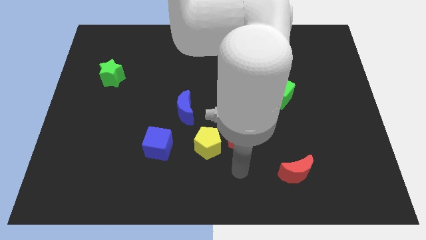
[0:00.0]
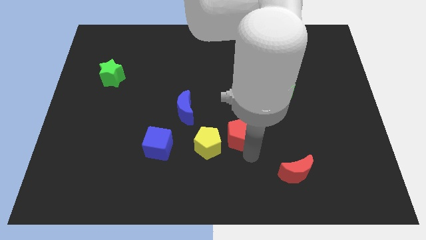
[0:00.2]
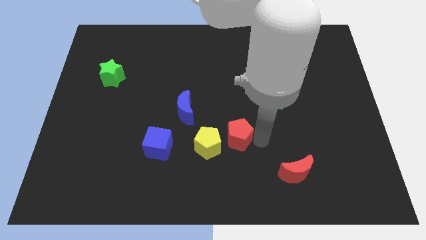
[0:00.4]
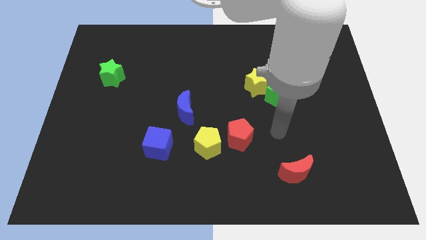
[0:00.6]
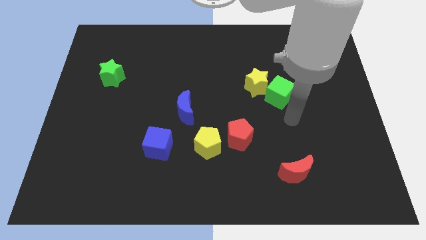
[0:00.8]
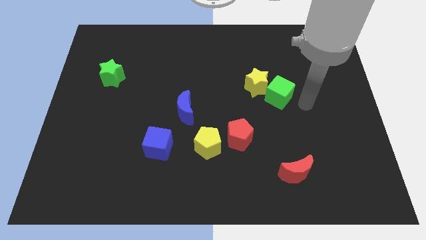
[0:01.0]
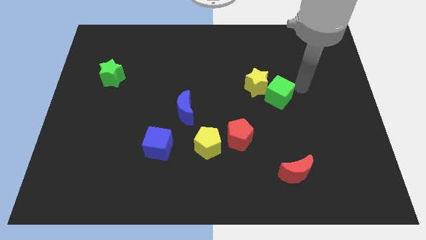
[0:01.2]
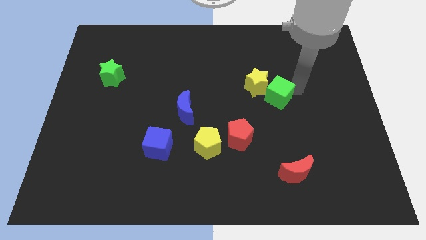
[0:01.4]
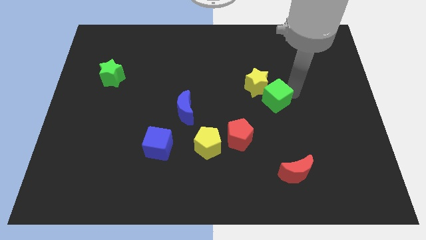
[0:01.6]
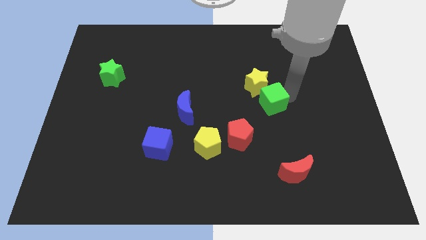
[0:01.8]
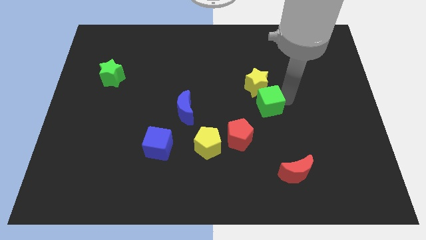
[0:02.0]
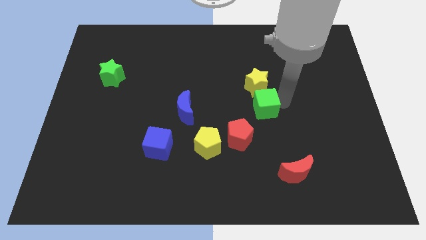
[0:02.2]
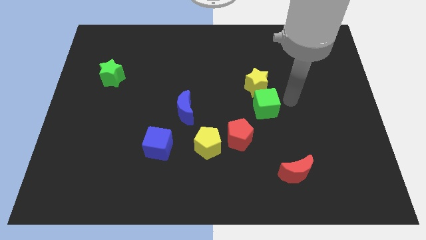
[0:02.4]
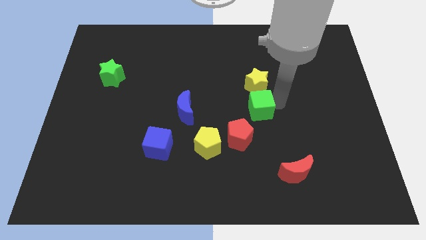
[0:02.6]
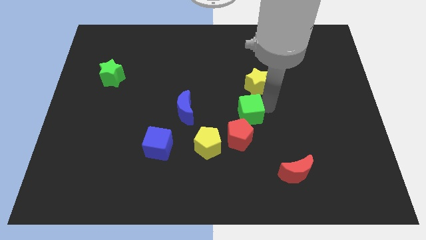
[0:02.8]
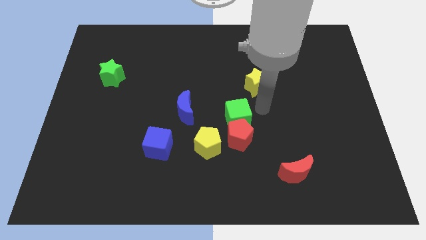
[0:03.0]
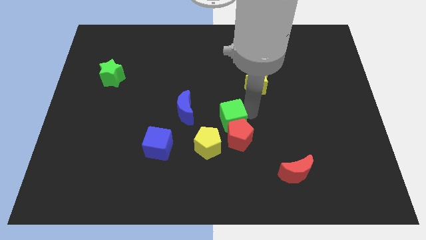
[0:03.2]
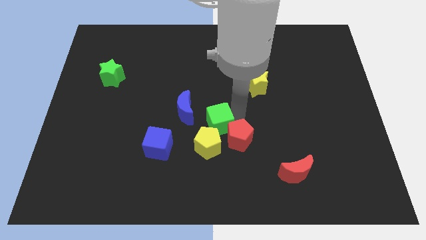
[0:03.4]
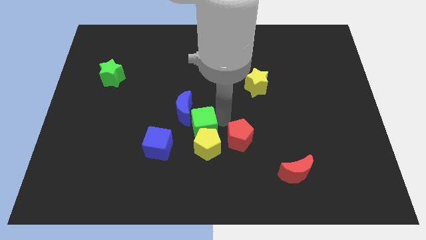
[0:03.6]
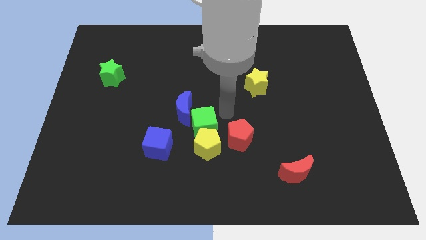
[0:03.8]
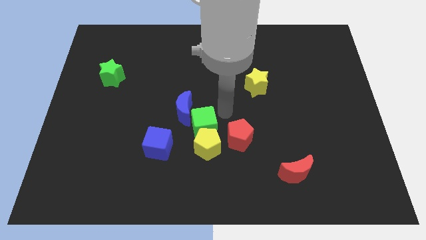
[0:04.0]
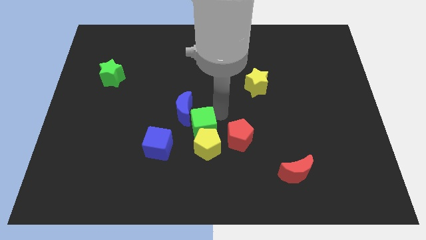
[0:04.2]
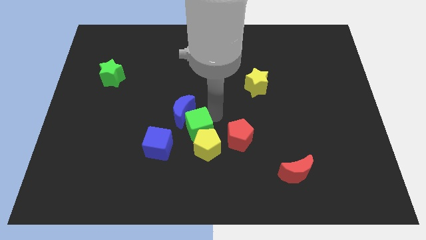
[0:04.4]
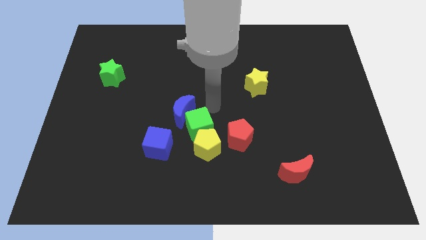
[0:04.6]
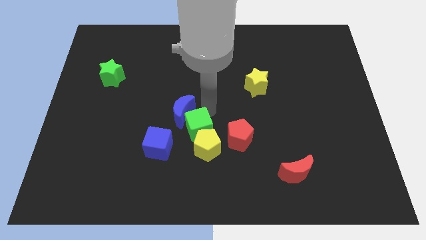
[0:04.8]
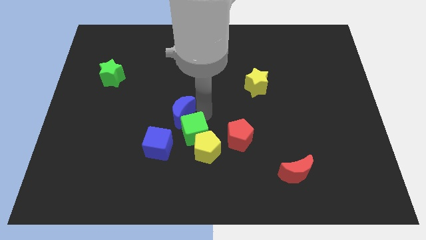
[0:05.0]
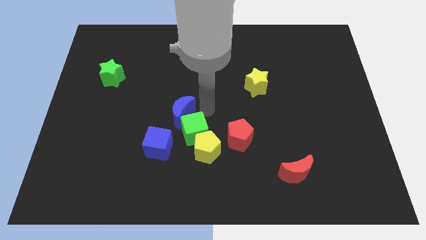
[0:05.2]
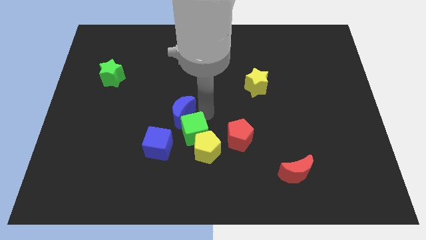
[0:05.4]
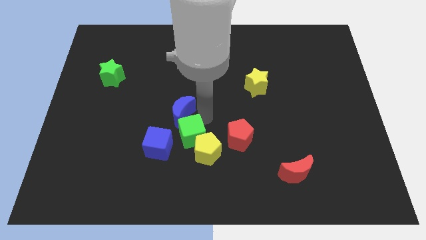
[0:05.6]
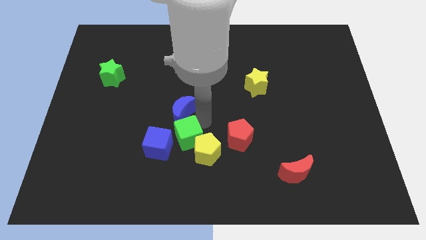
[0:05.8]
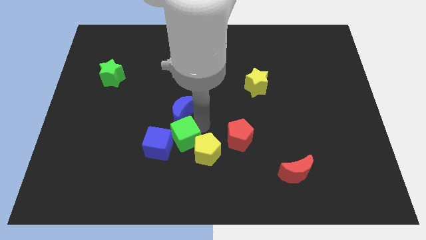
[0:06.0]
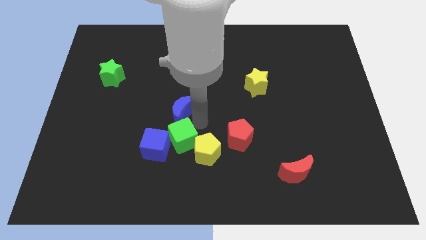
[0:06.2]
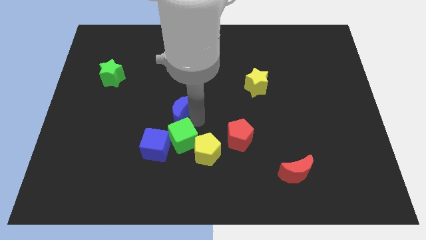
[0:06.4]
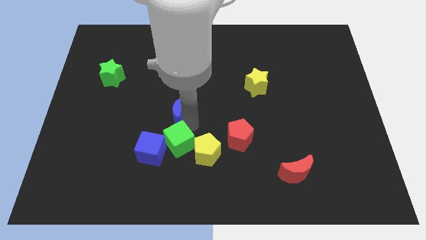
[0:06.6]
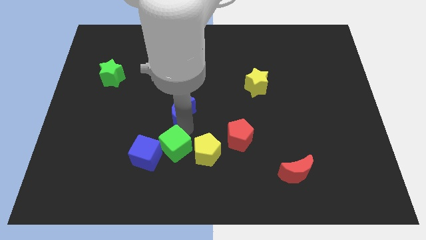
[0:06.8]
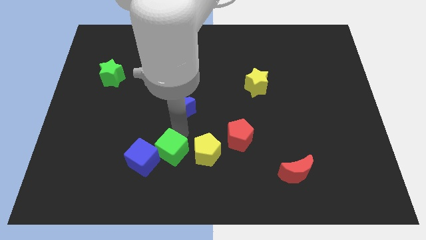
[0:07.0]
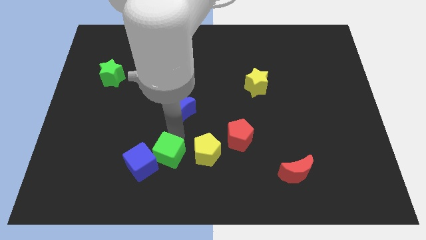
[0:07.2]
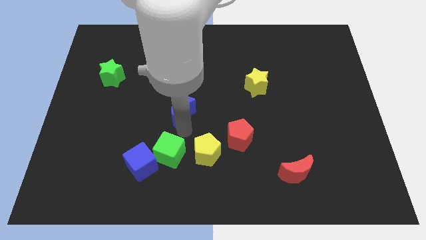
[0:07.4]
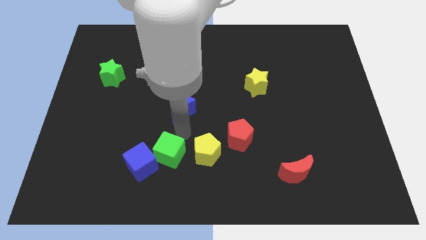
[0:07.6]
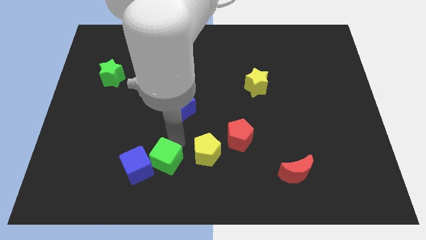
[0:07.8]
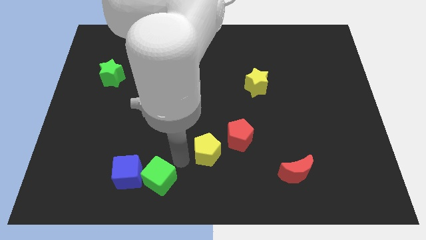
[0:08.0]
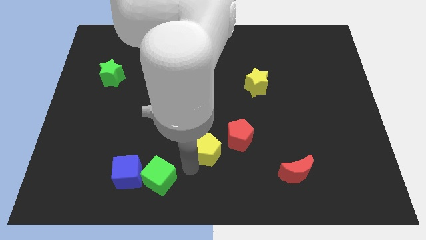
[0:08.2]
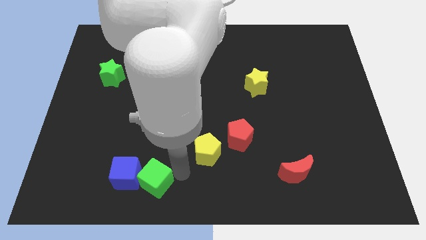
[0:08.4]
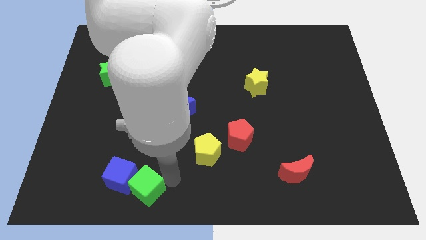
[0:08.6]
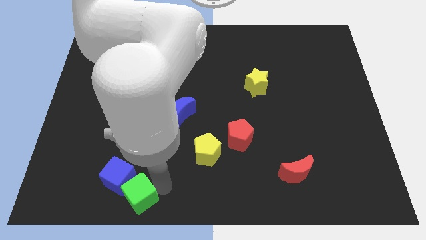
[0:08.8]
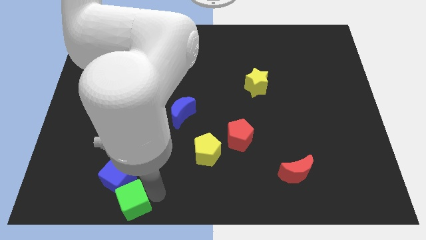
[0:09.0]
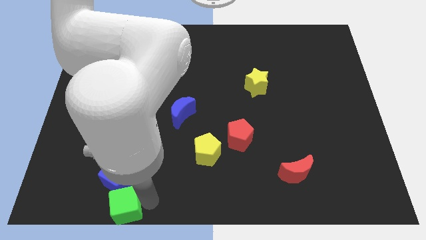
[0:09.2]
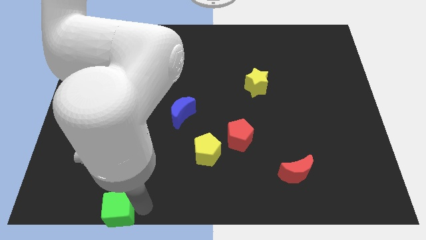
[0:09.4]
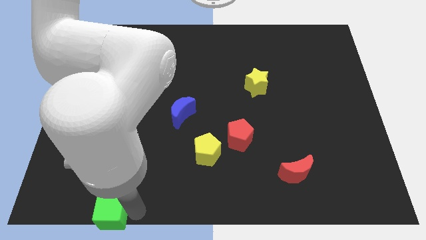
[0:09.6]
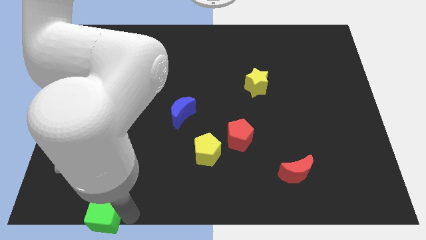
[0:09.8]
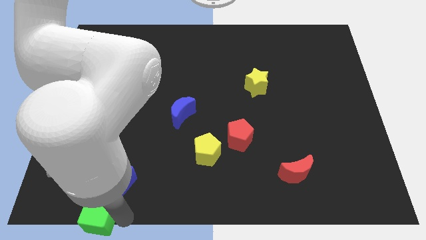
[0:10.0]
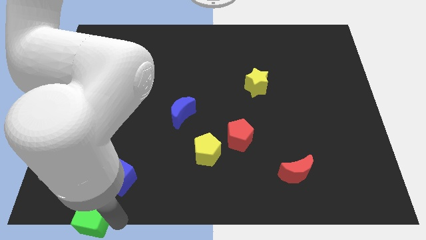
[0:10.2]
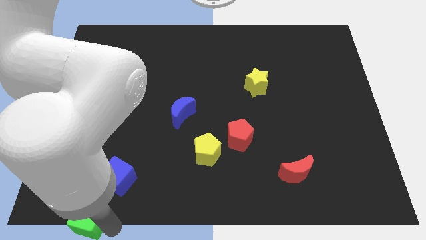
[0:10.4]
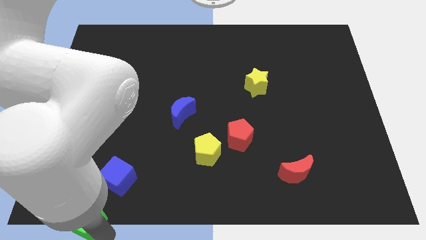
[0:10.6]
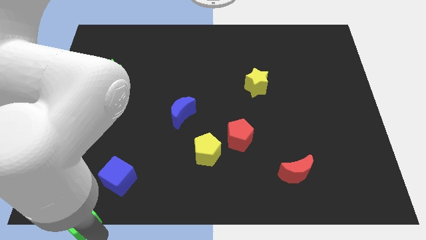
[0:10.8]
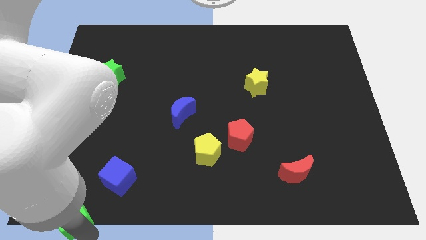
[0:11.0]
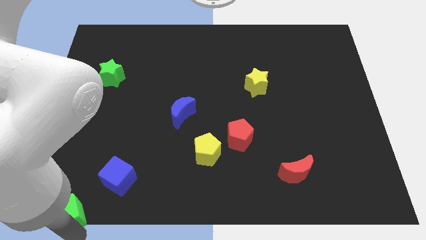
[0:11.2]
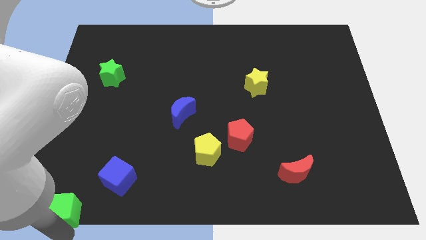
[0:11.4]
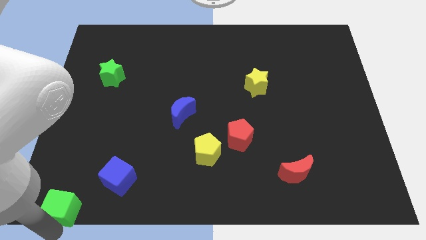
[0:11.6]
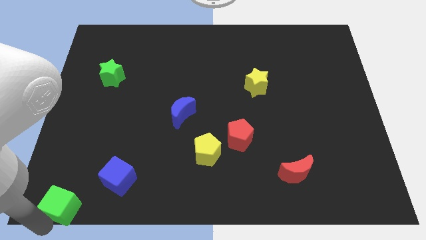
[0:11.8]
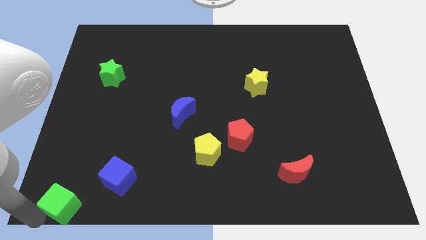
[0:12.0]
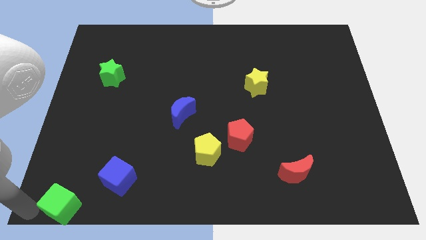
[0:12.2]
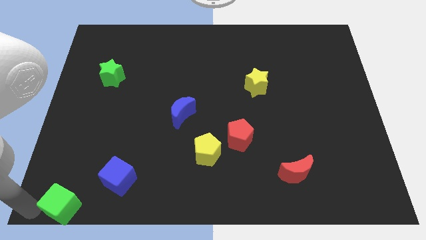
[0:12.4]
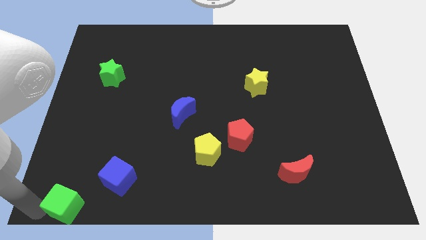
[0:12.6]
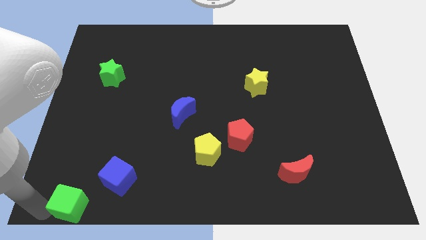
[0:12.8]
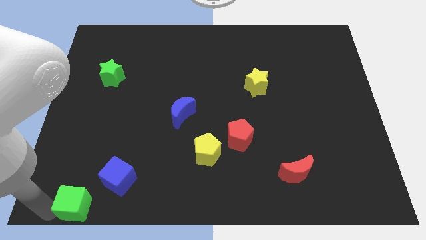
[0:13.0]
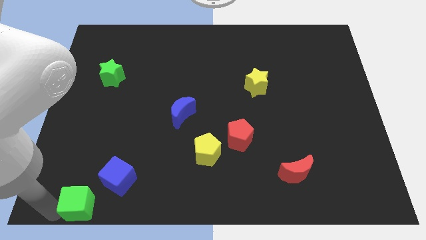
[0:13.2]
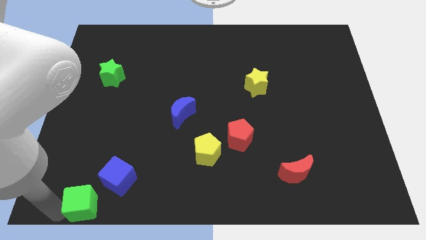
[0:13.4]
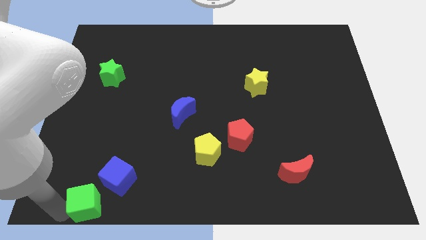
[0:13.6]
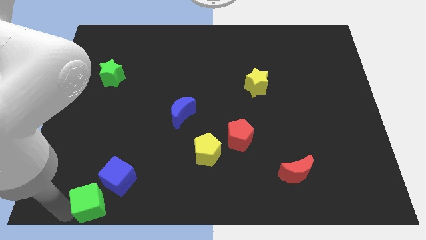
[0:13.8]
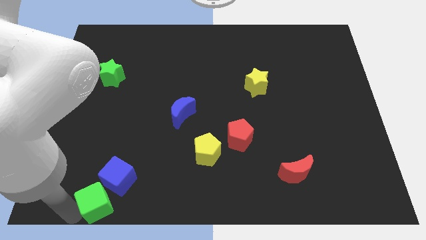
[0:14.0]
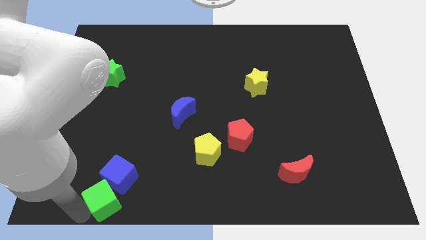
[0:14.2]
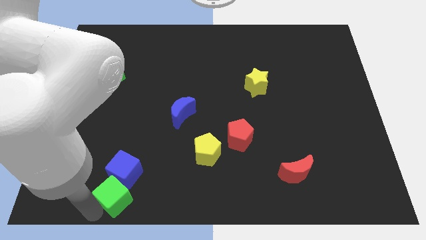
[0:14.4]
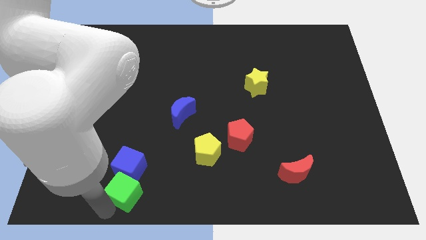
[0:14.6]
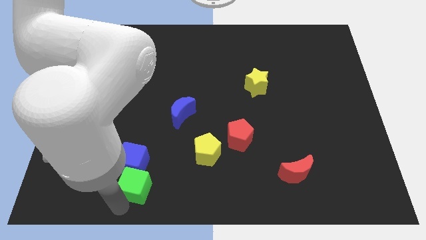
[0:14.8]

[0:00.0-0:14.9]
slide the green cube to the bottom left of the blue cube
